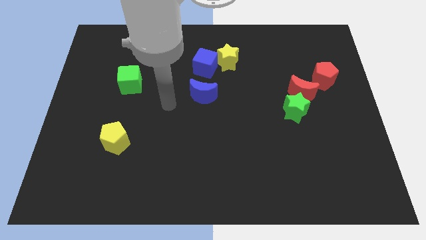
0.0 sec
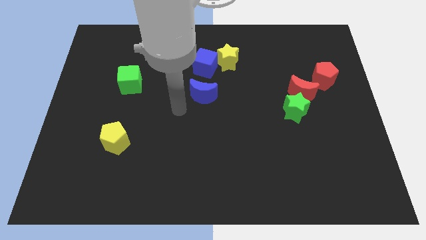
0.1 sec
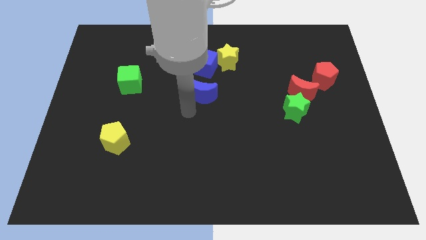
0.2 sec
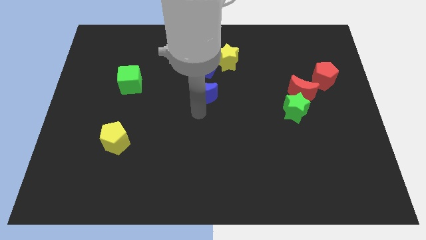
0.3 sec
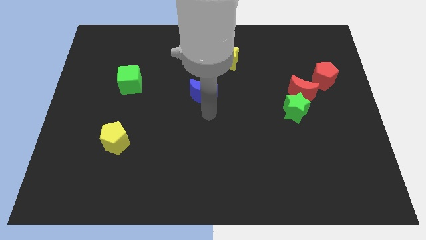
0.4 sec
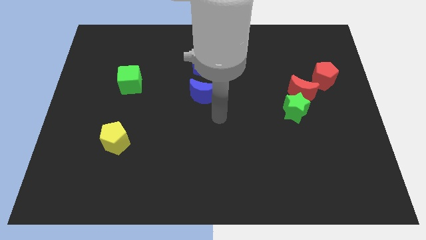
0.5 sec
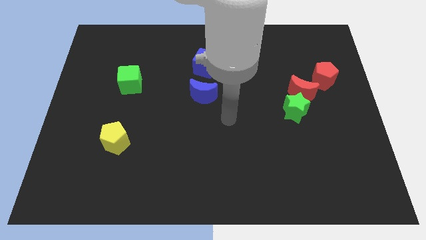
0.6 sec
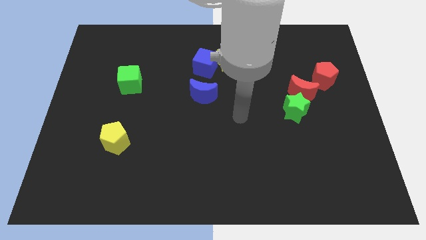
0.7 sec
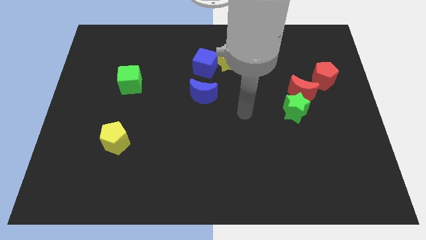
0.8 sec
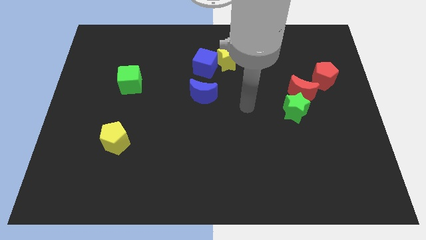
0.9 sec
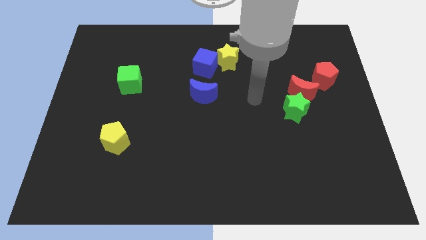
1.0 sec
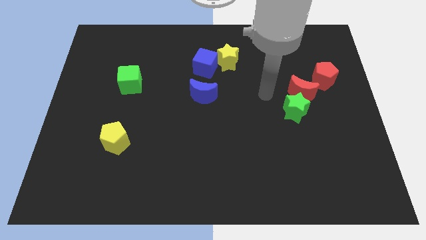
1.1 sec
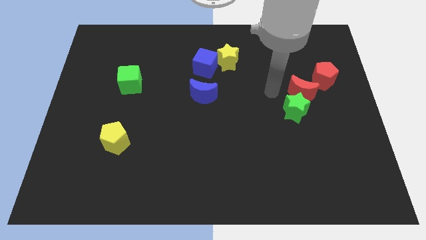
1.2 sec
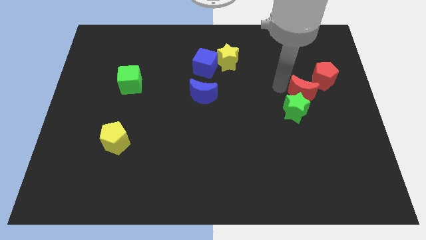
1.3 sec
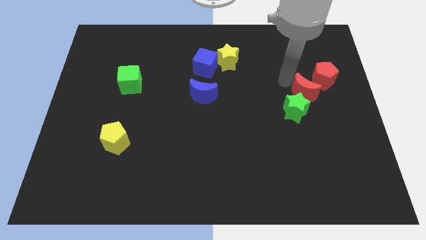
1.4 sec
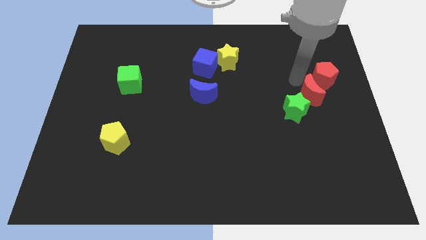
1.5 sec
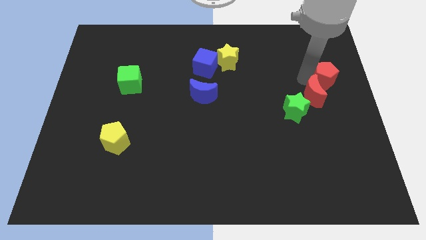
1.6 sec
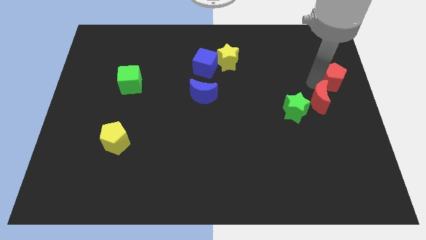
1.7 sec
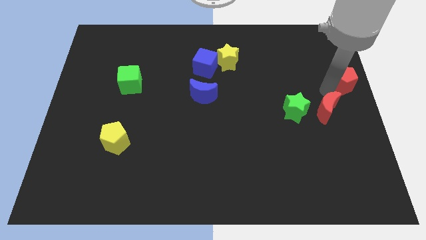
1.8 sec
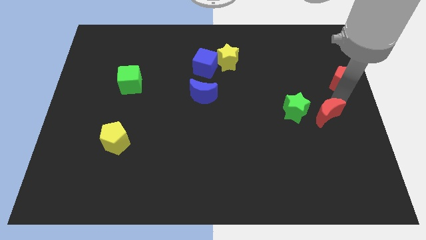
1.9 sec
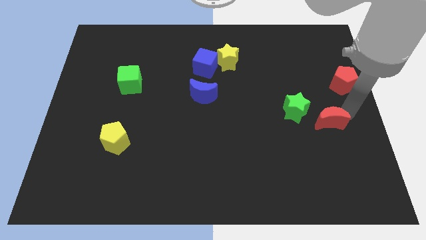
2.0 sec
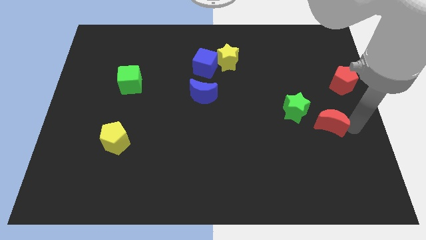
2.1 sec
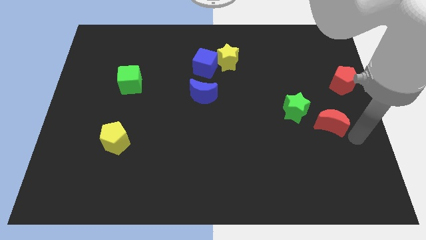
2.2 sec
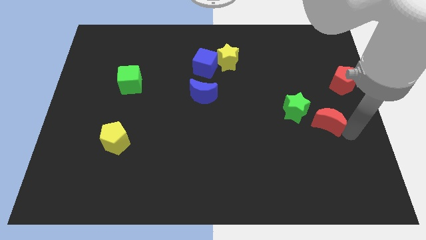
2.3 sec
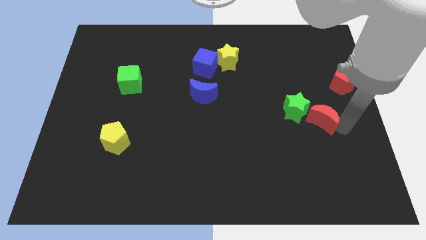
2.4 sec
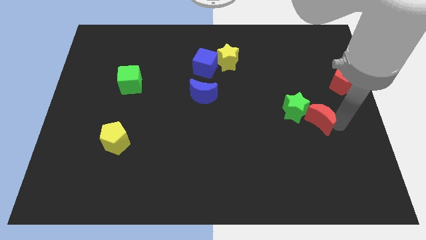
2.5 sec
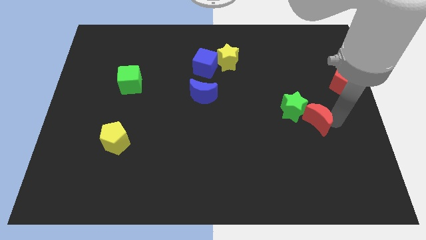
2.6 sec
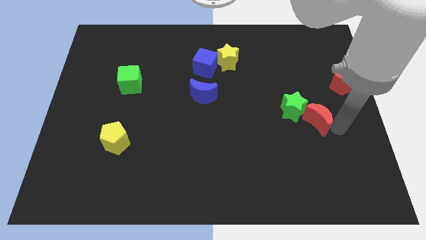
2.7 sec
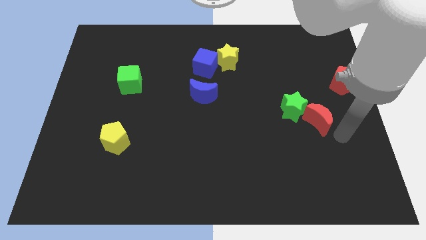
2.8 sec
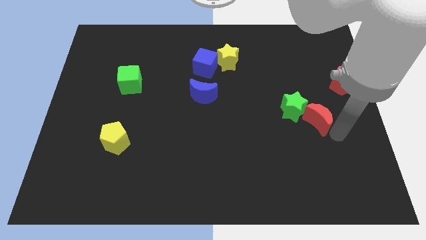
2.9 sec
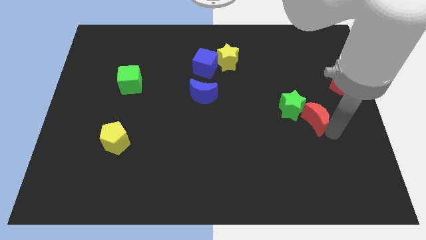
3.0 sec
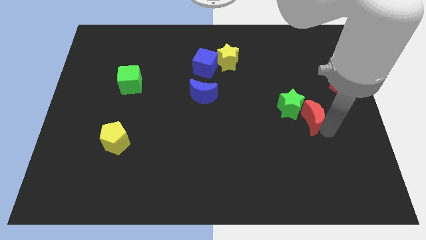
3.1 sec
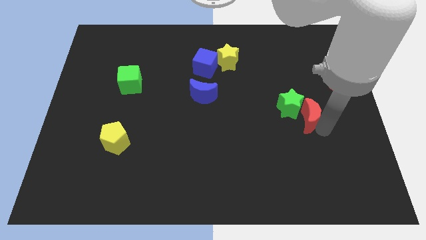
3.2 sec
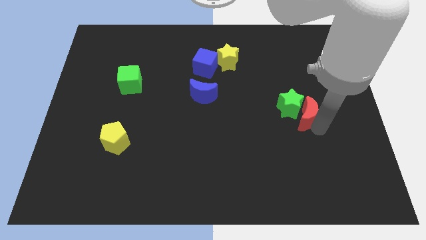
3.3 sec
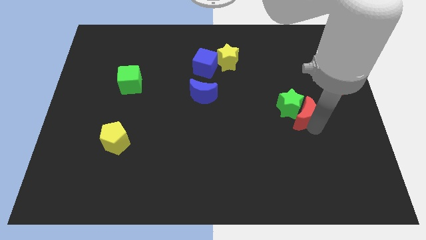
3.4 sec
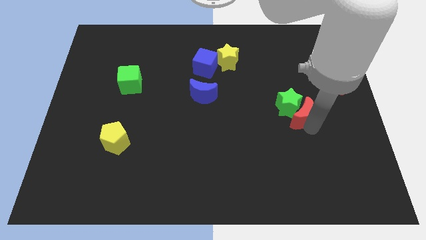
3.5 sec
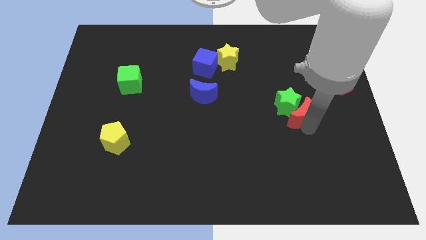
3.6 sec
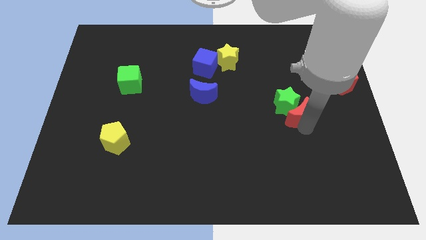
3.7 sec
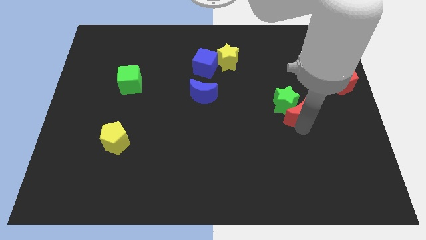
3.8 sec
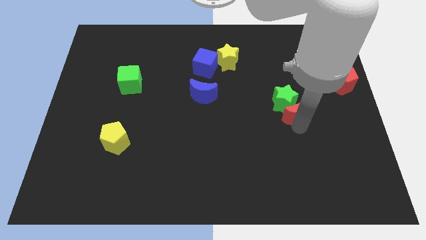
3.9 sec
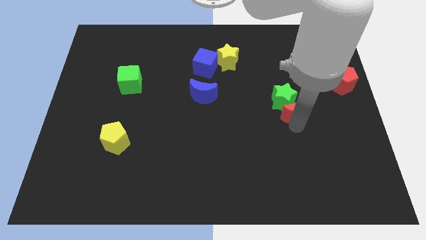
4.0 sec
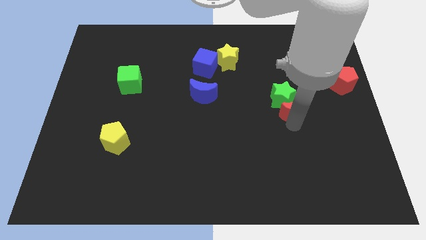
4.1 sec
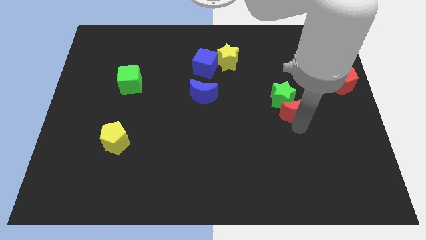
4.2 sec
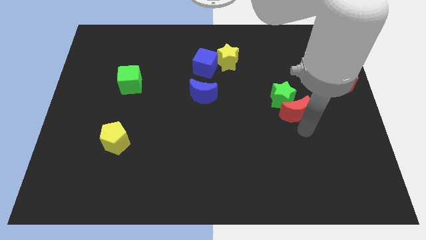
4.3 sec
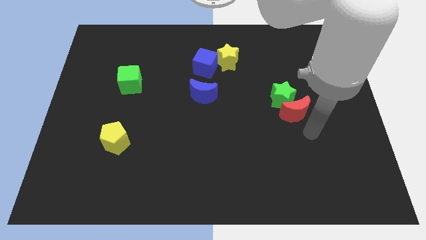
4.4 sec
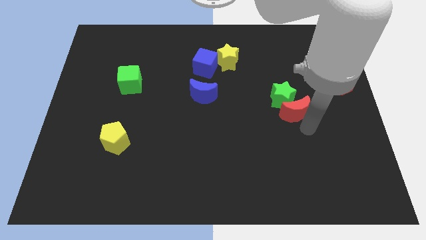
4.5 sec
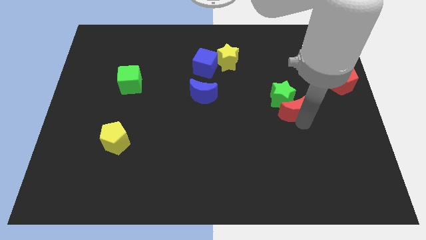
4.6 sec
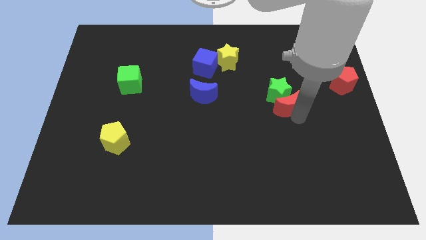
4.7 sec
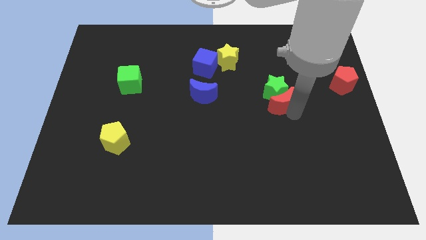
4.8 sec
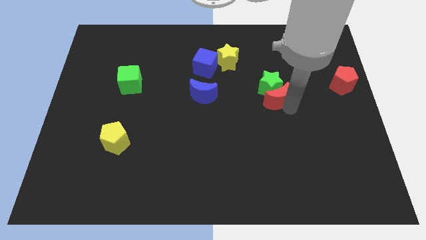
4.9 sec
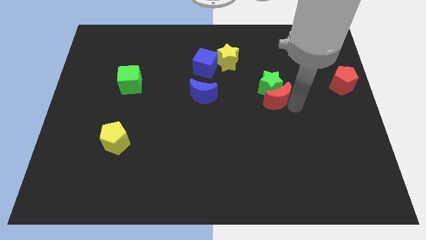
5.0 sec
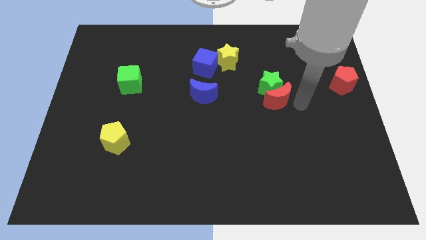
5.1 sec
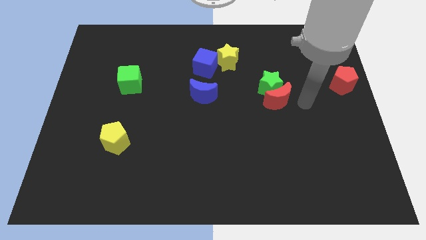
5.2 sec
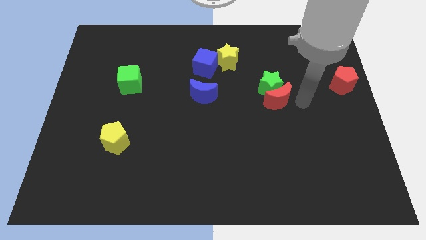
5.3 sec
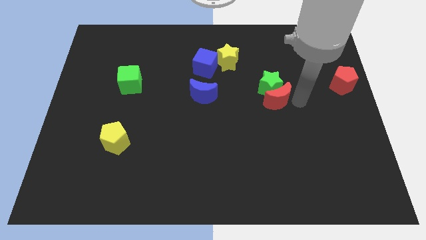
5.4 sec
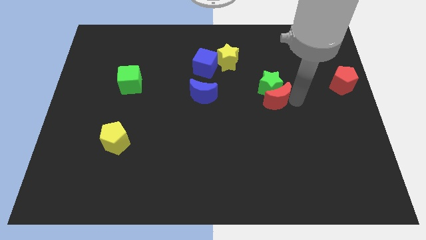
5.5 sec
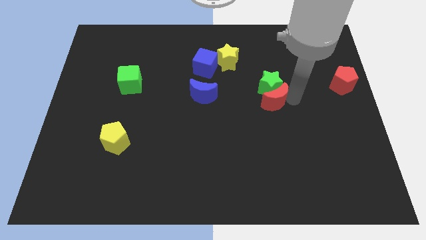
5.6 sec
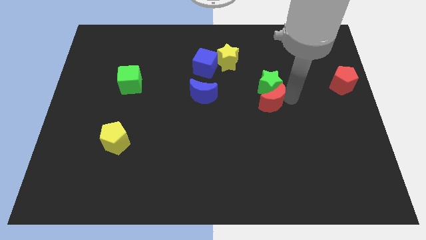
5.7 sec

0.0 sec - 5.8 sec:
slightly push the red moon left

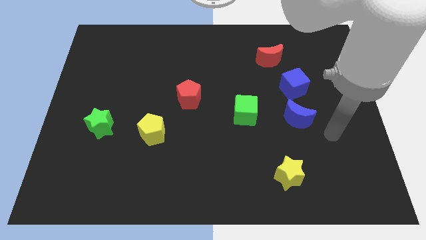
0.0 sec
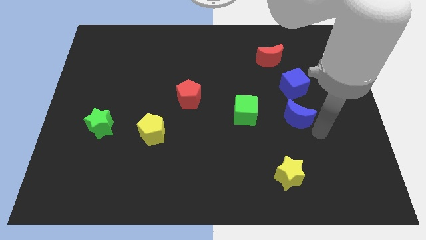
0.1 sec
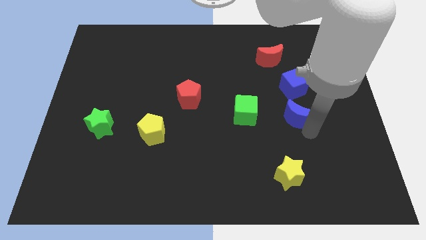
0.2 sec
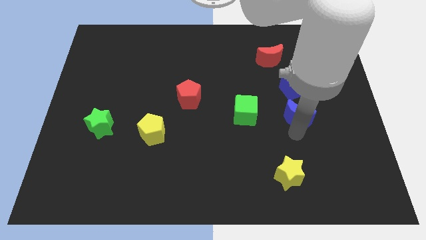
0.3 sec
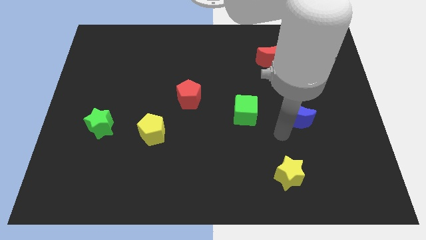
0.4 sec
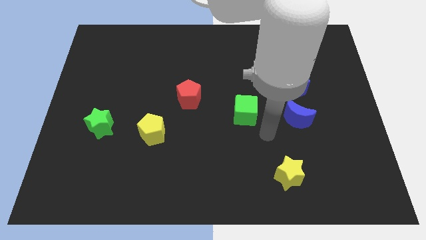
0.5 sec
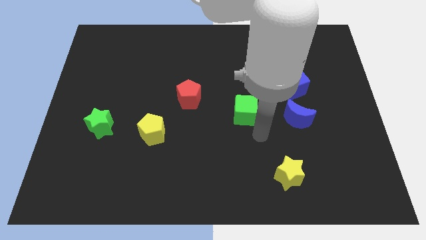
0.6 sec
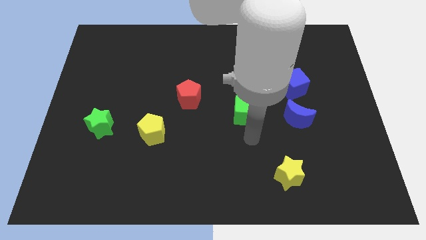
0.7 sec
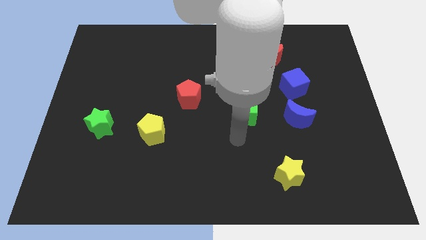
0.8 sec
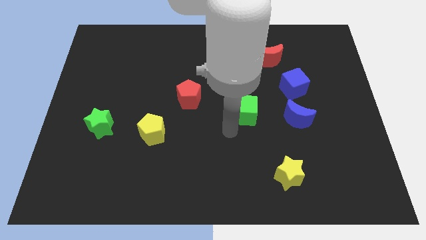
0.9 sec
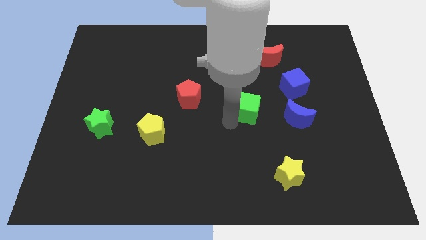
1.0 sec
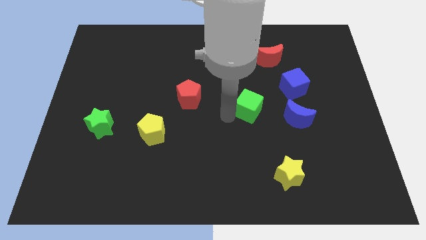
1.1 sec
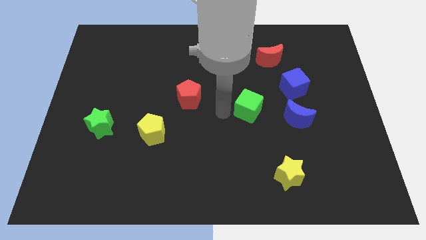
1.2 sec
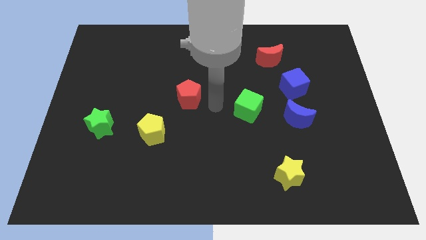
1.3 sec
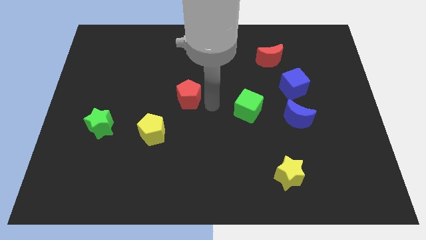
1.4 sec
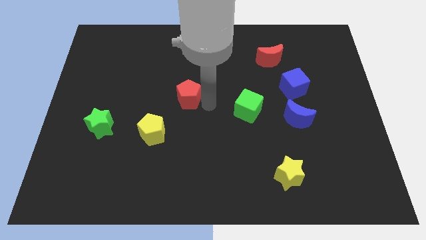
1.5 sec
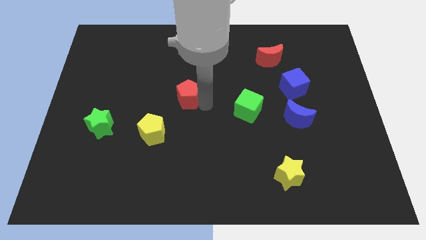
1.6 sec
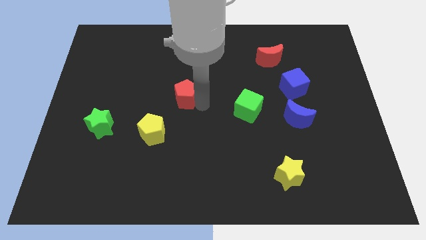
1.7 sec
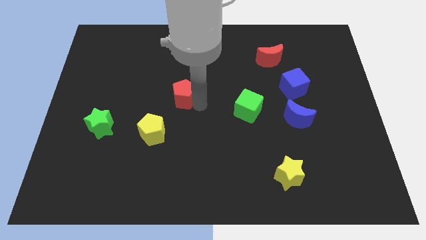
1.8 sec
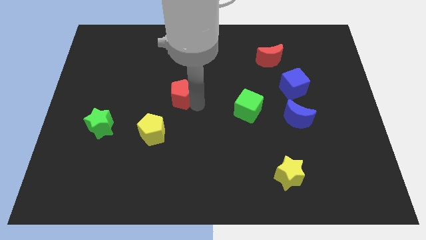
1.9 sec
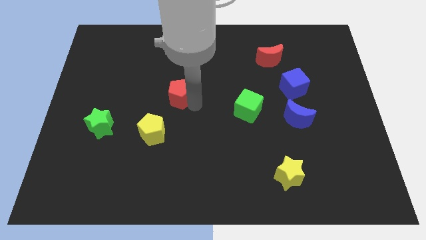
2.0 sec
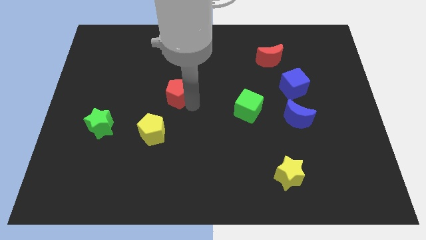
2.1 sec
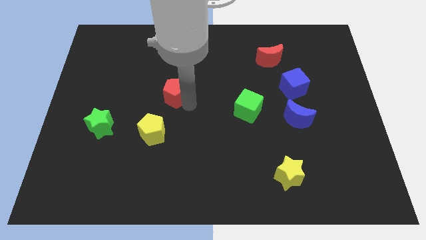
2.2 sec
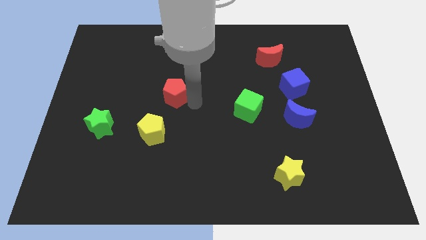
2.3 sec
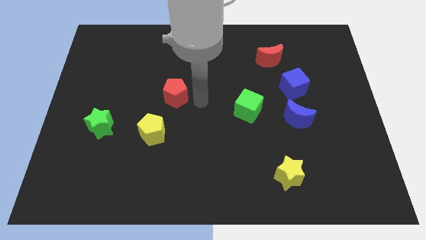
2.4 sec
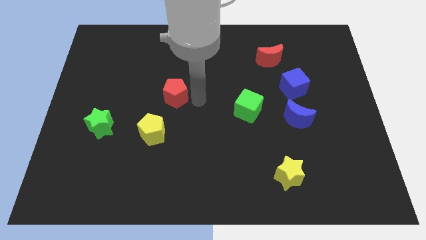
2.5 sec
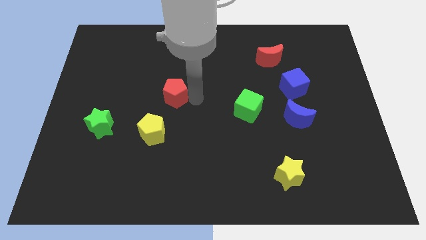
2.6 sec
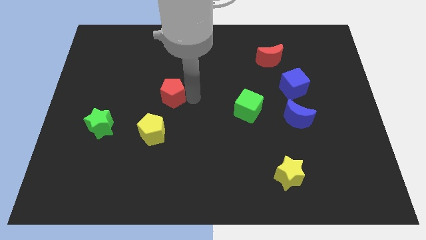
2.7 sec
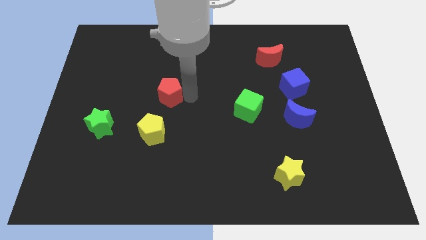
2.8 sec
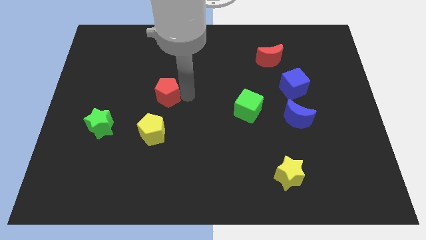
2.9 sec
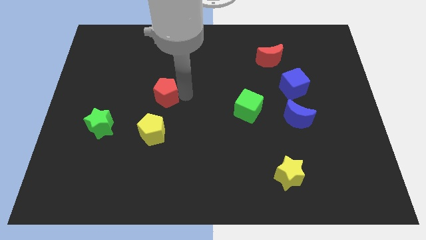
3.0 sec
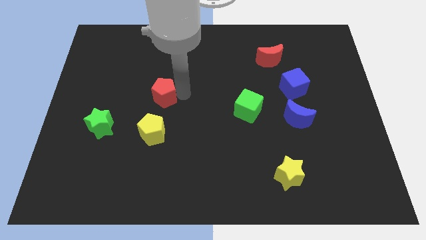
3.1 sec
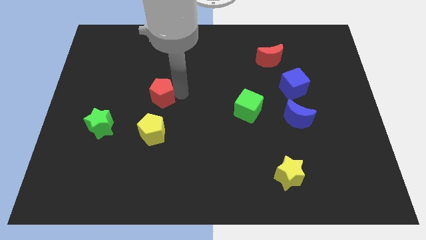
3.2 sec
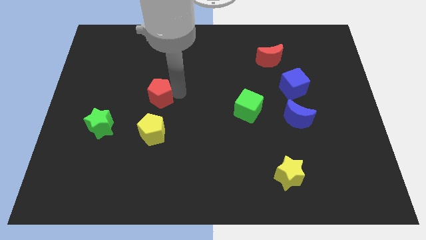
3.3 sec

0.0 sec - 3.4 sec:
move the red pentagon a bit left
